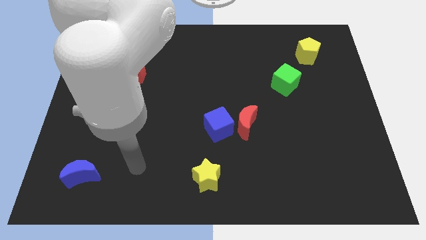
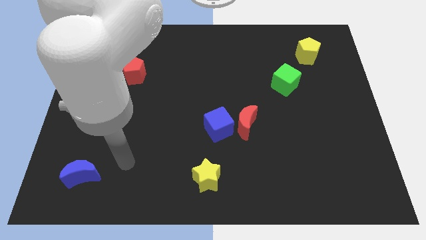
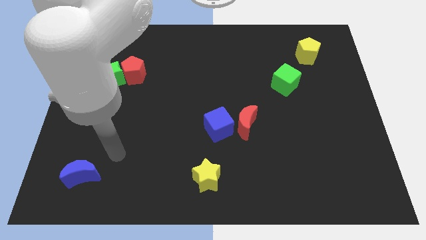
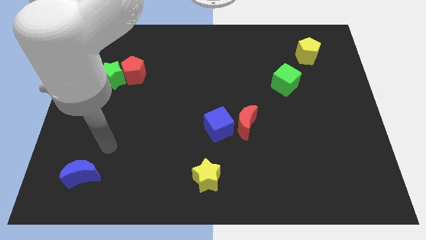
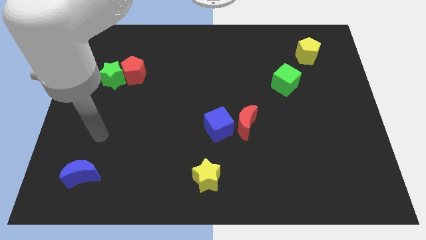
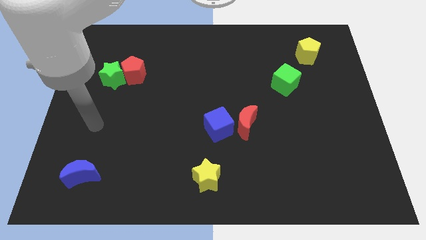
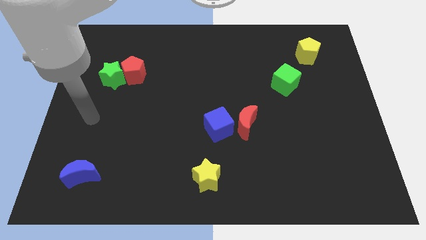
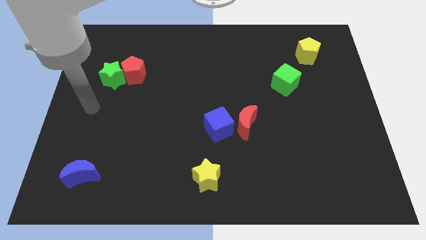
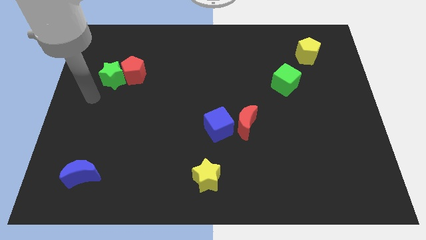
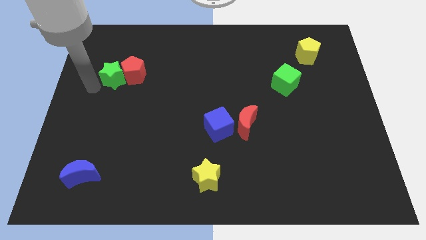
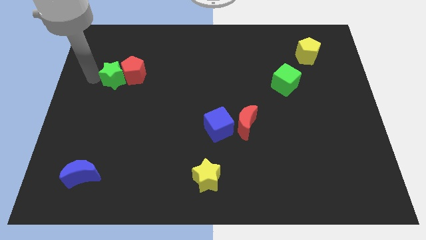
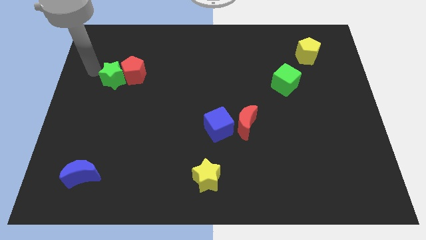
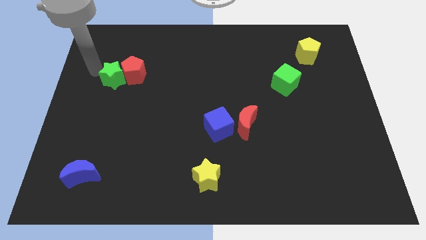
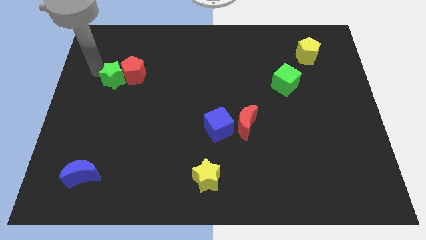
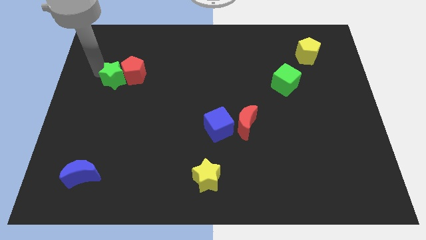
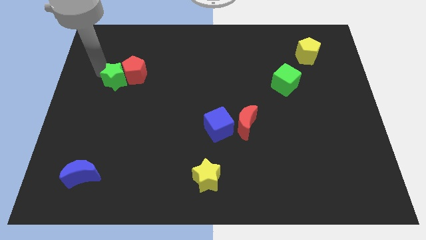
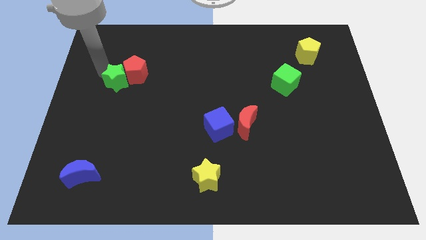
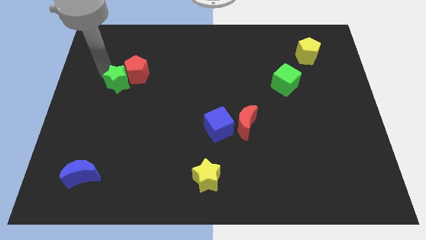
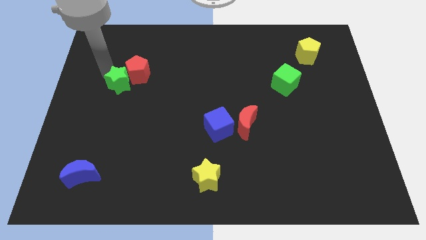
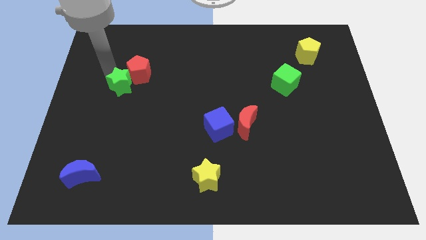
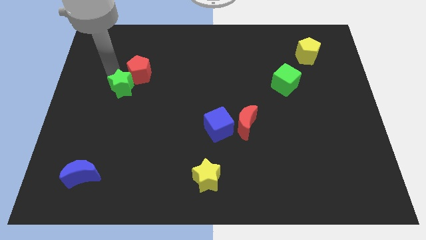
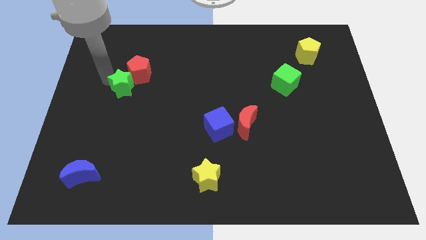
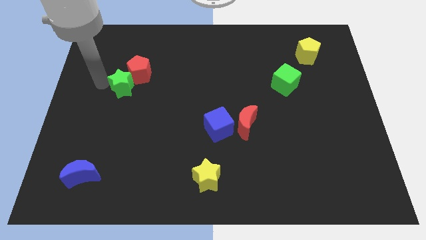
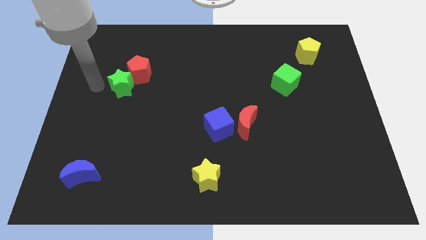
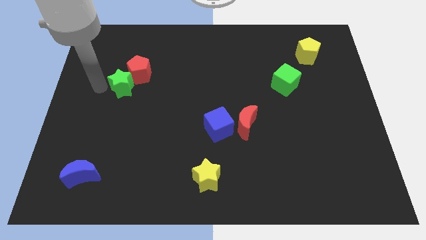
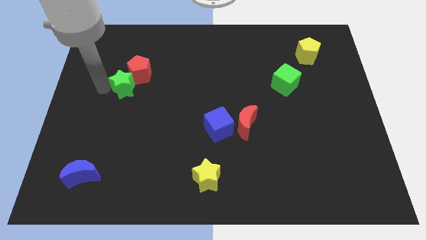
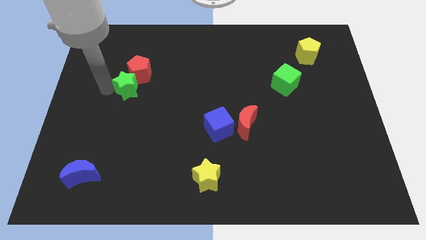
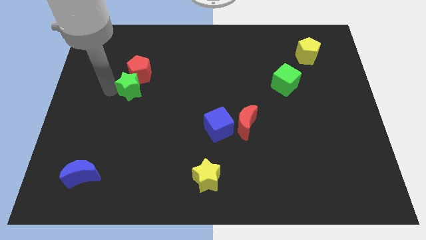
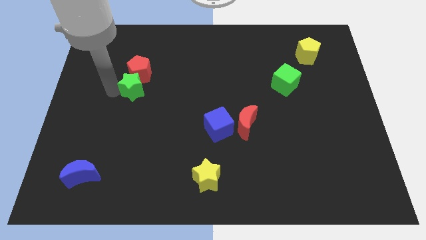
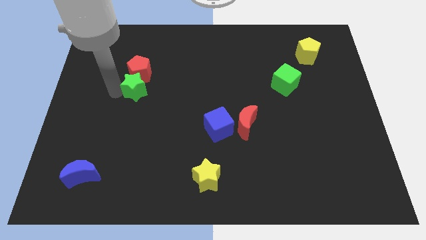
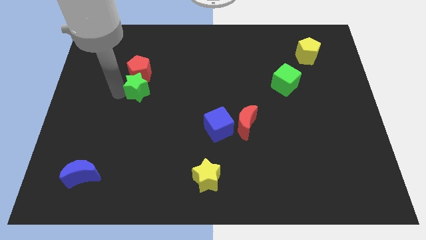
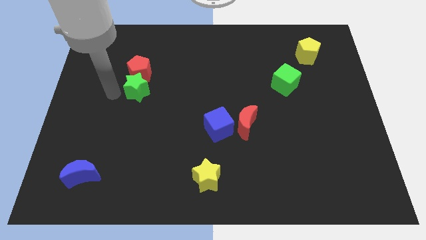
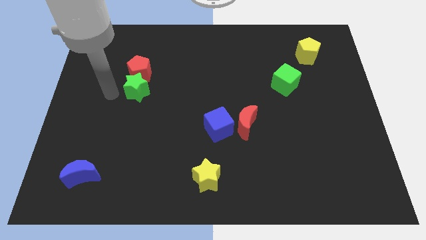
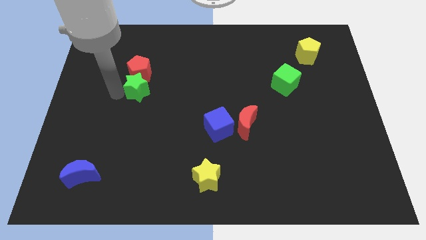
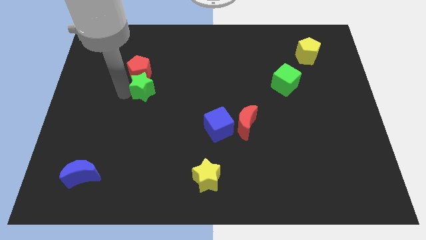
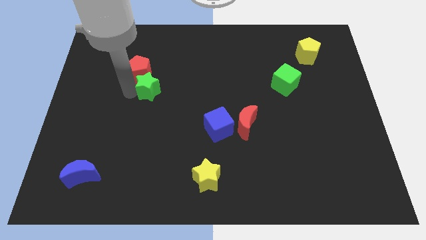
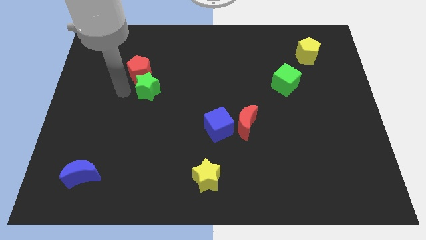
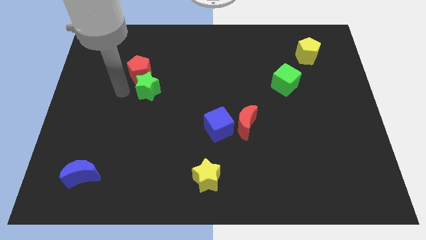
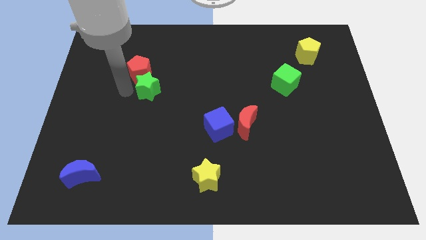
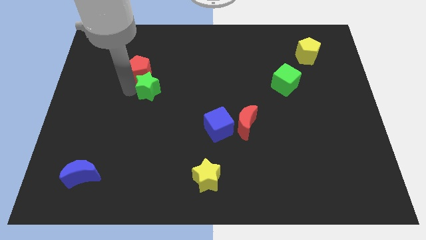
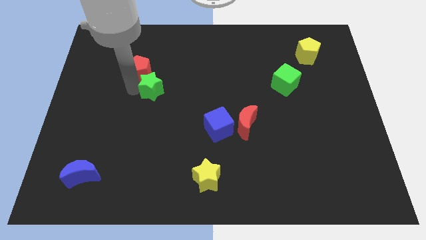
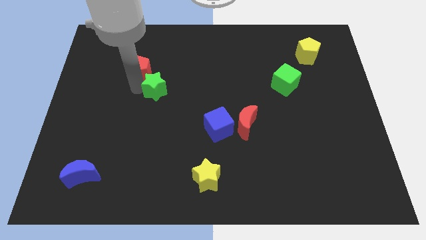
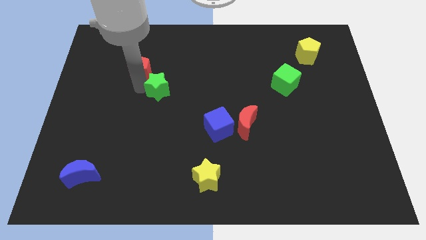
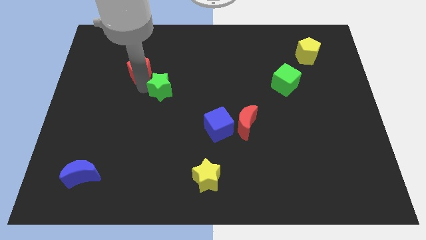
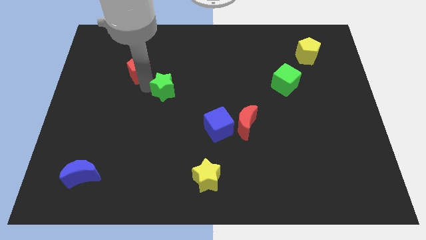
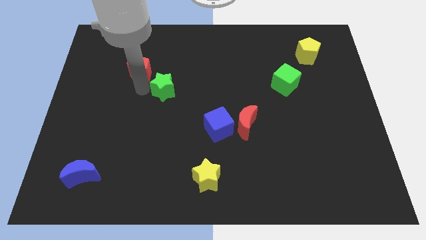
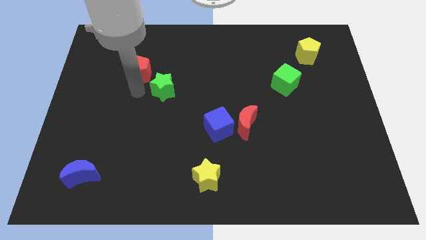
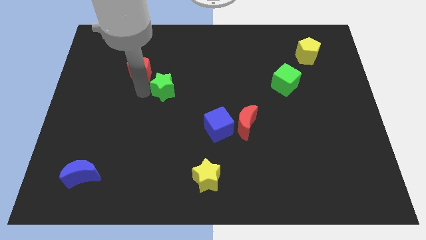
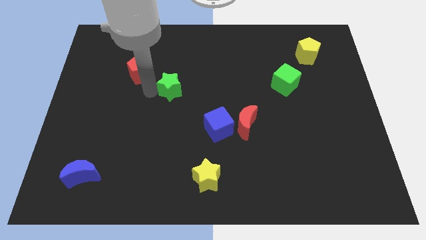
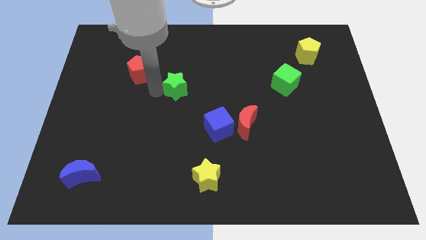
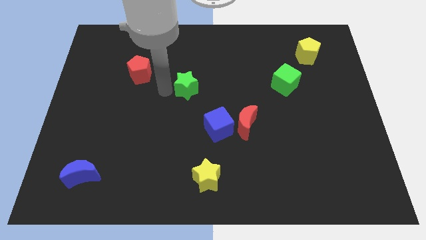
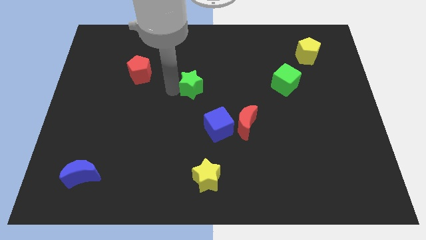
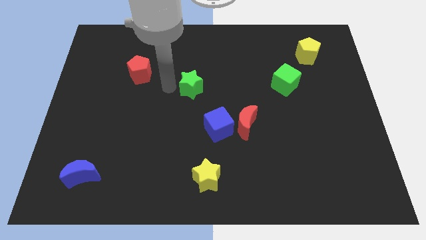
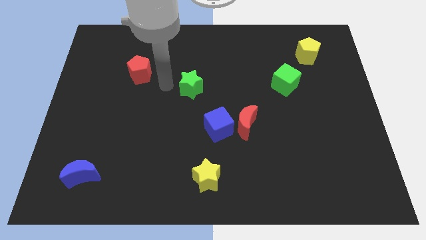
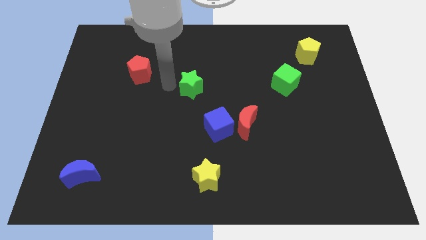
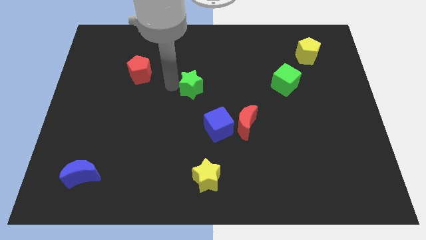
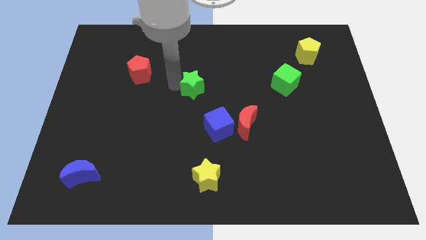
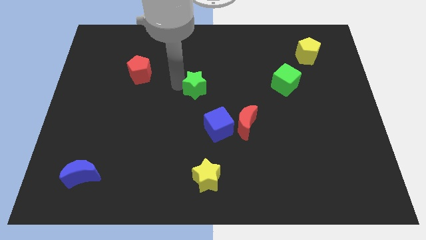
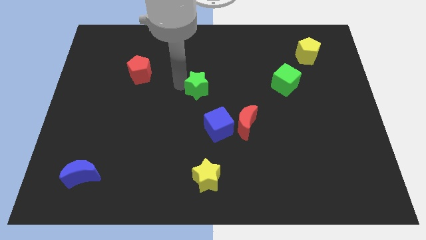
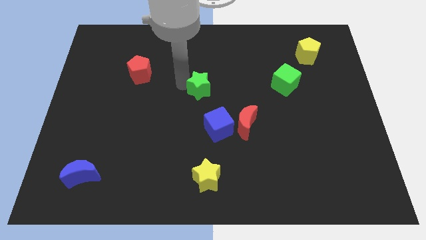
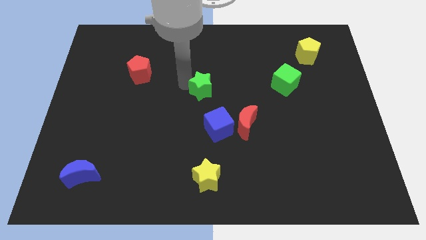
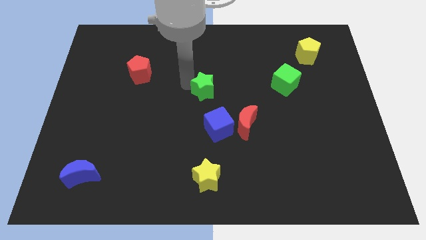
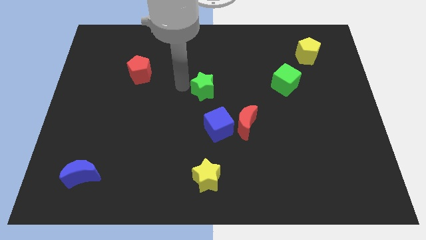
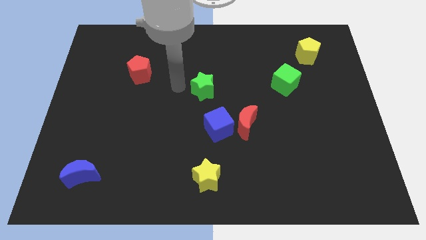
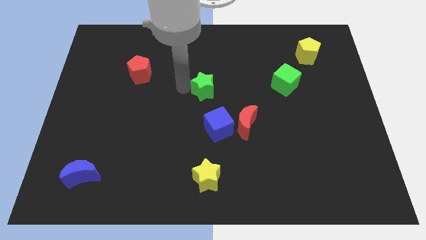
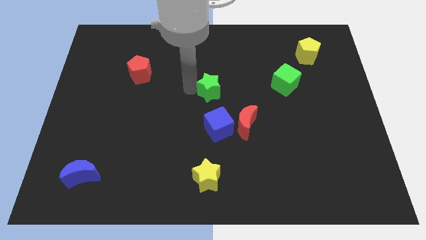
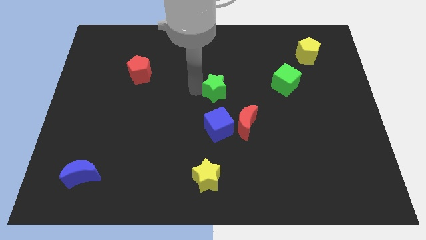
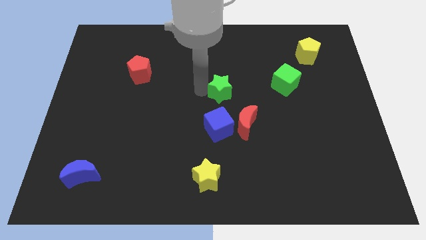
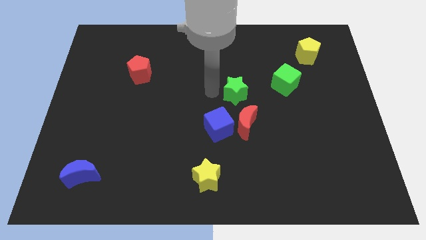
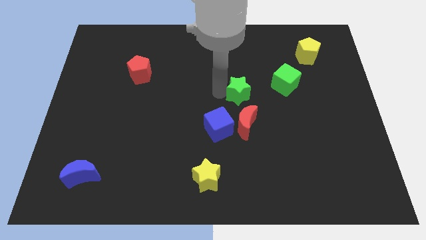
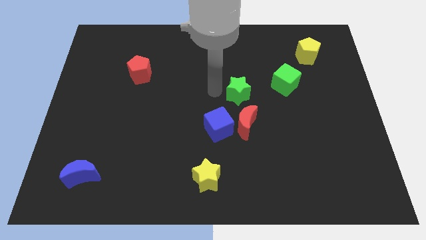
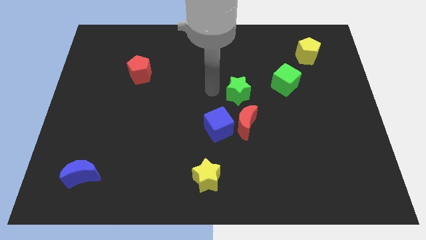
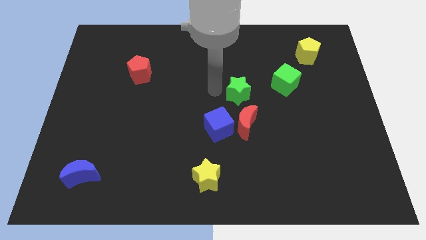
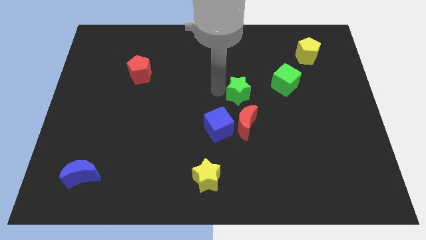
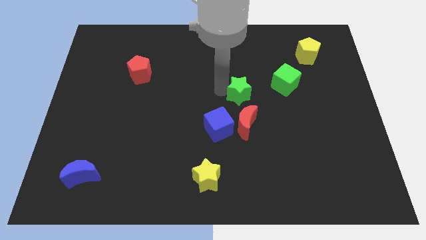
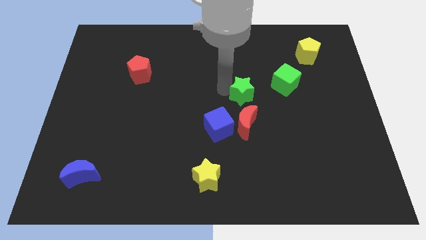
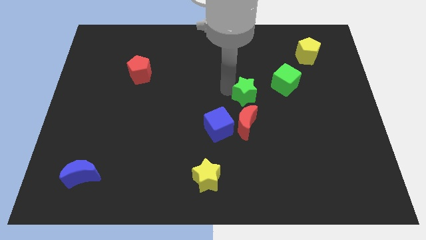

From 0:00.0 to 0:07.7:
put the green star to the bottom left of the green cube
